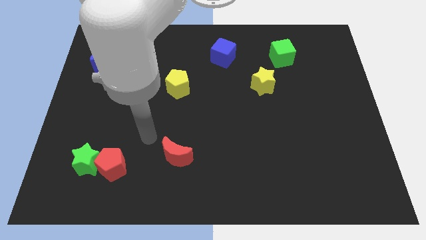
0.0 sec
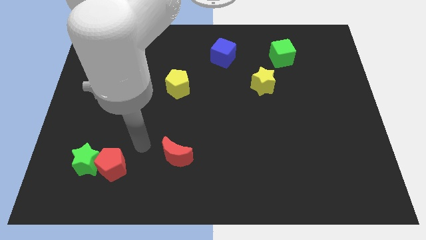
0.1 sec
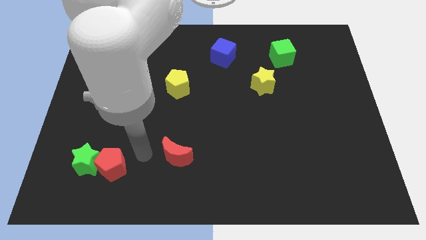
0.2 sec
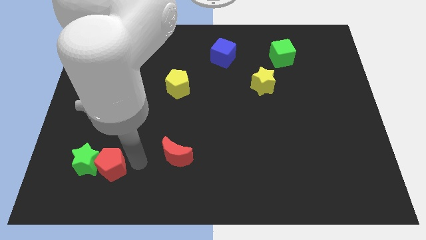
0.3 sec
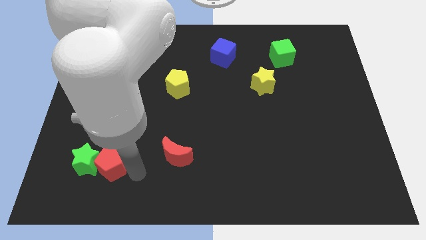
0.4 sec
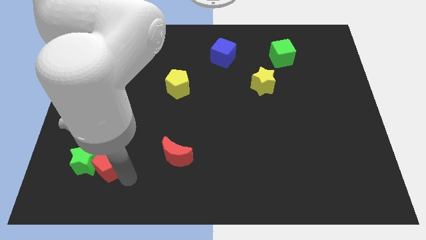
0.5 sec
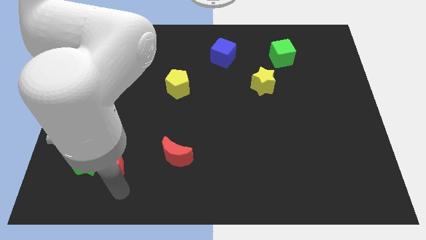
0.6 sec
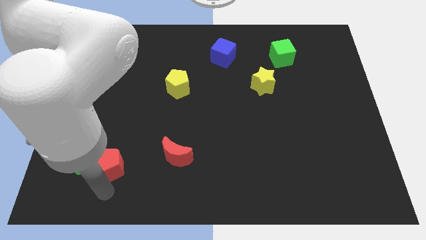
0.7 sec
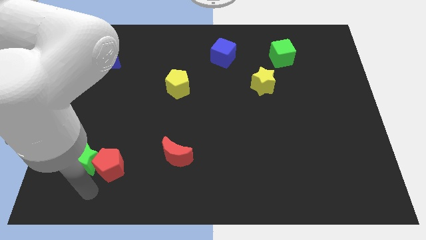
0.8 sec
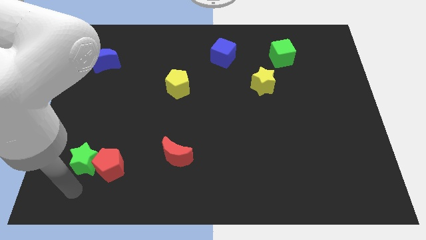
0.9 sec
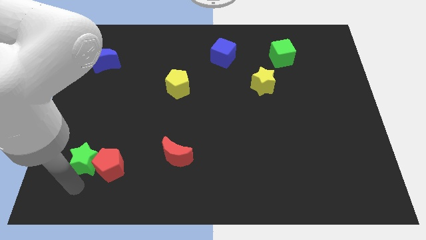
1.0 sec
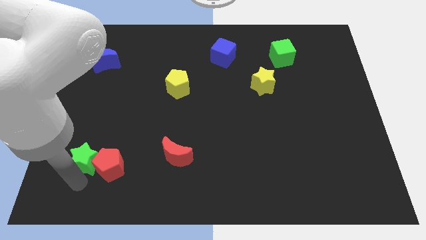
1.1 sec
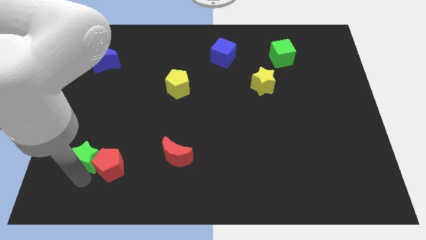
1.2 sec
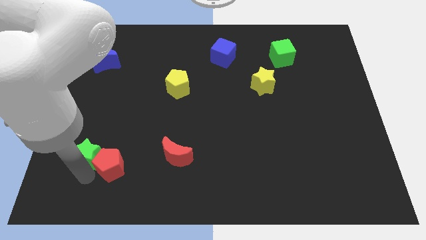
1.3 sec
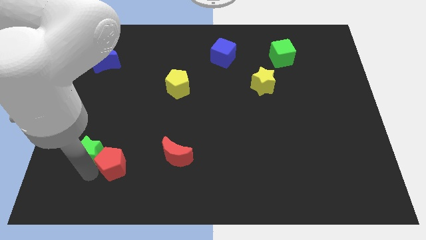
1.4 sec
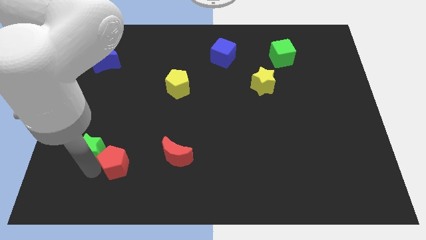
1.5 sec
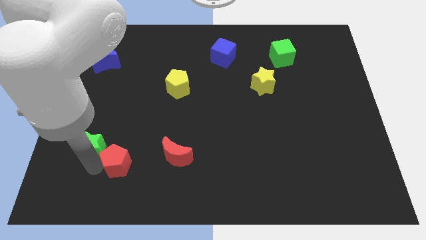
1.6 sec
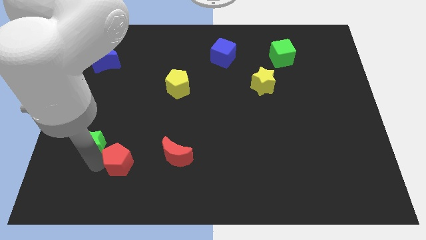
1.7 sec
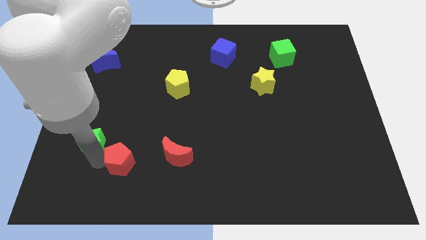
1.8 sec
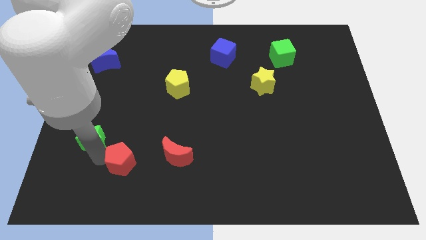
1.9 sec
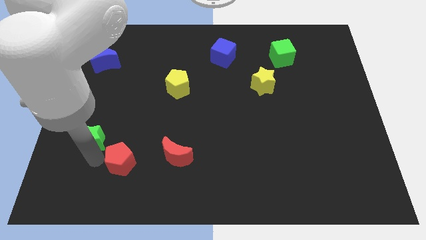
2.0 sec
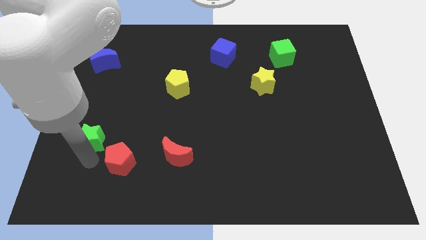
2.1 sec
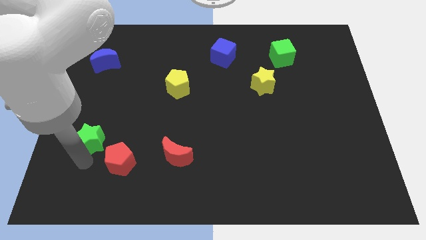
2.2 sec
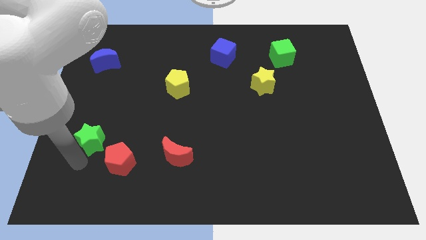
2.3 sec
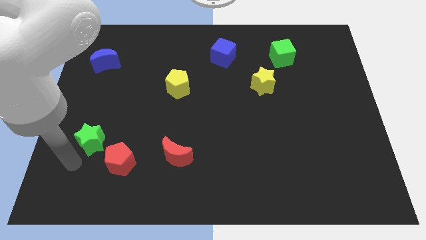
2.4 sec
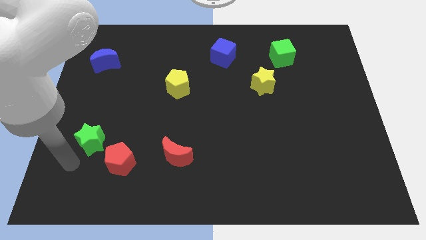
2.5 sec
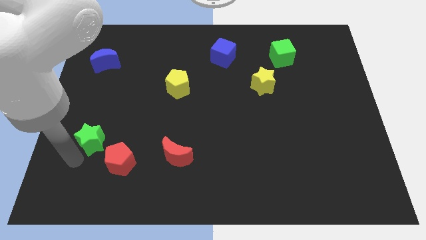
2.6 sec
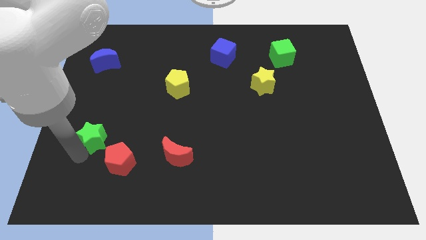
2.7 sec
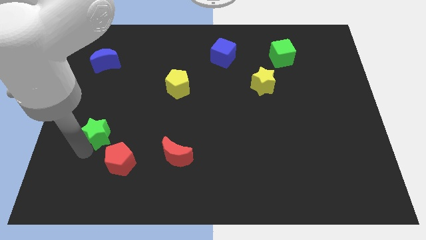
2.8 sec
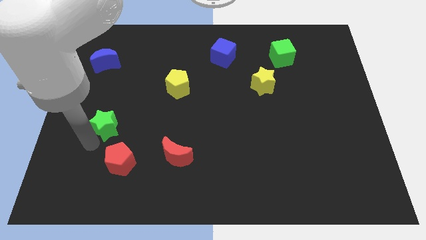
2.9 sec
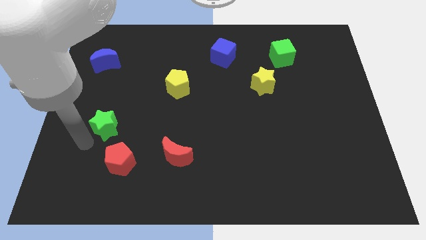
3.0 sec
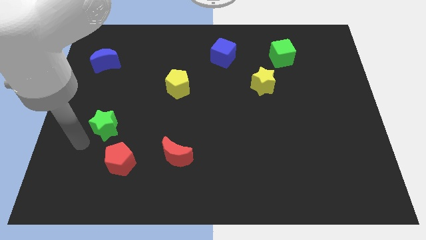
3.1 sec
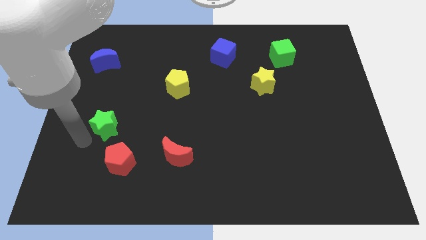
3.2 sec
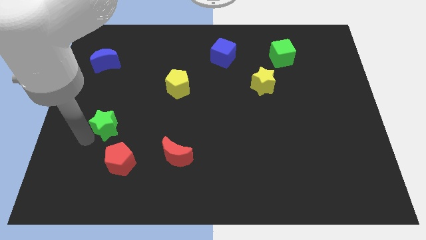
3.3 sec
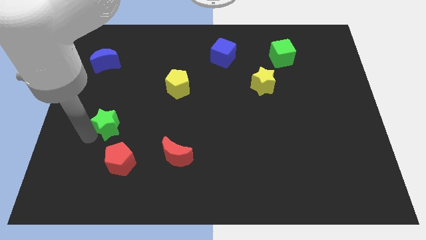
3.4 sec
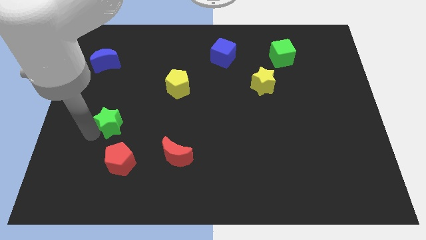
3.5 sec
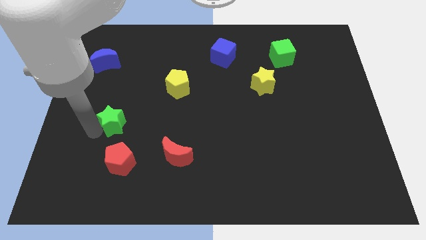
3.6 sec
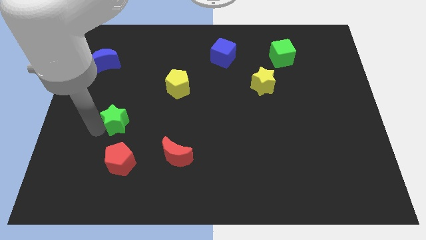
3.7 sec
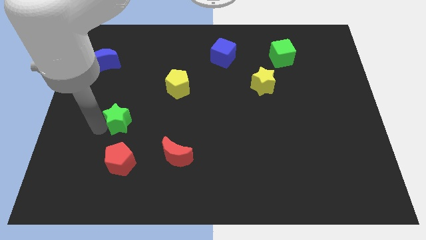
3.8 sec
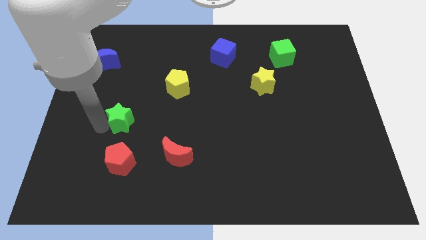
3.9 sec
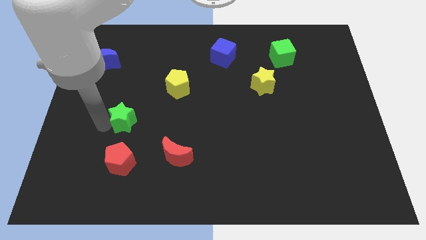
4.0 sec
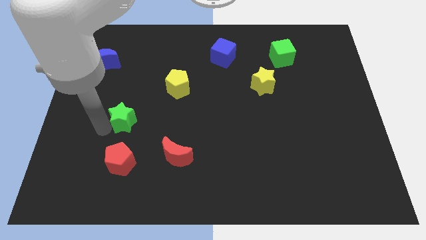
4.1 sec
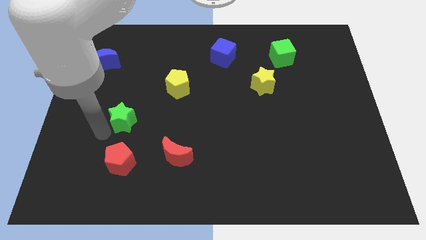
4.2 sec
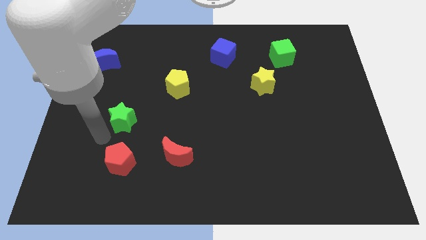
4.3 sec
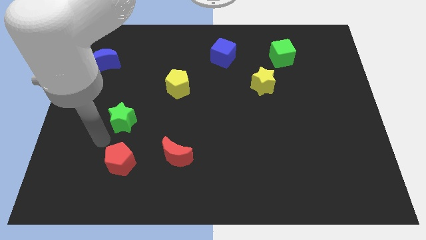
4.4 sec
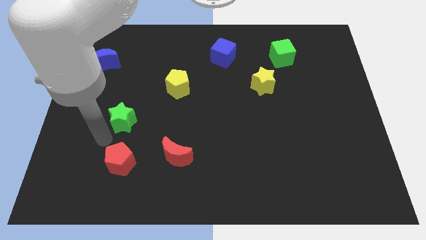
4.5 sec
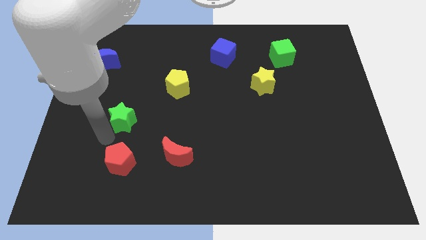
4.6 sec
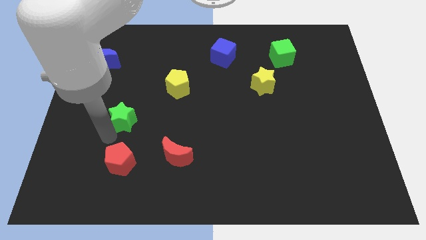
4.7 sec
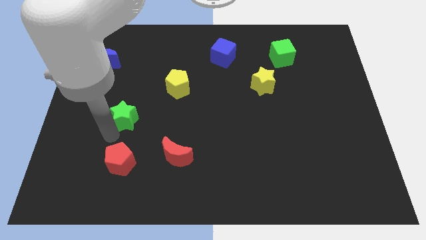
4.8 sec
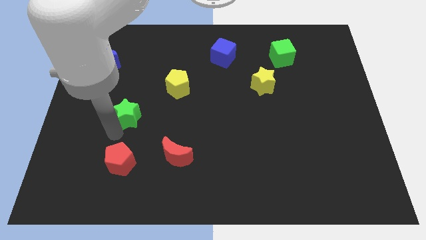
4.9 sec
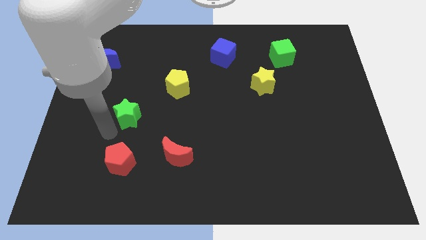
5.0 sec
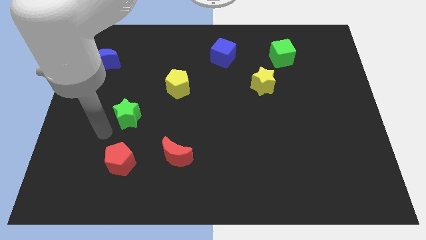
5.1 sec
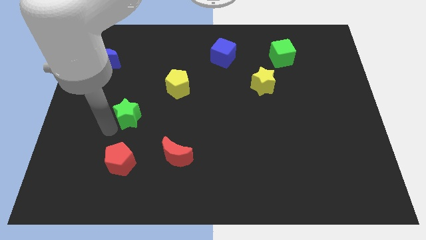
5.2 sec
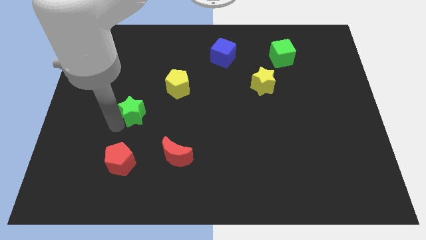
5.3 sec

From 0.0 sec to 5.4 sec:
move the green star diagonally down and to the left of the yellow pentagon
